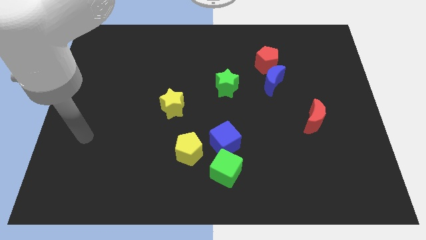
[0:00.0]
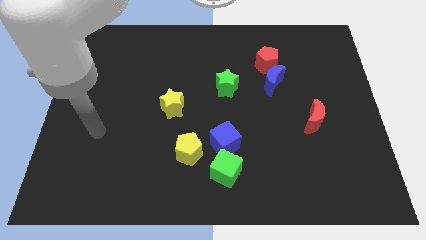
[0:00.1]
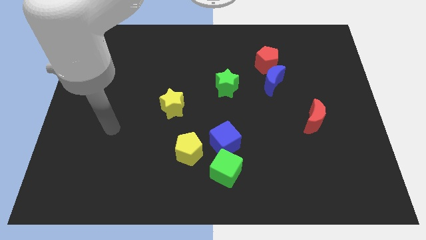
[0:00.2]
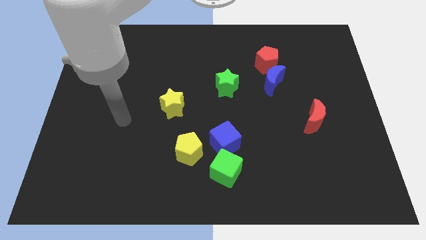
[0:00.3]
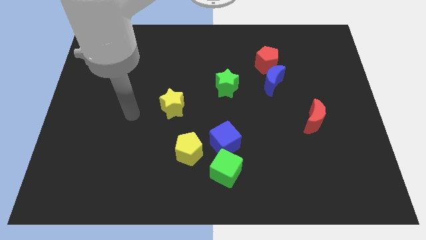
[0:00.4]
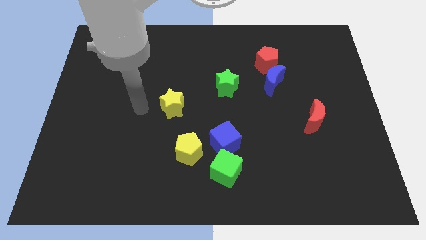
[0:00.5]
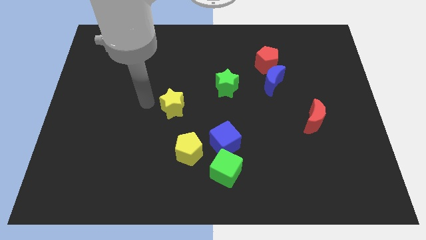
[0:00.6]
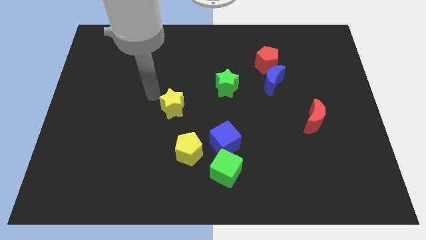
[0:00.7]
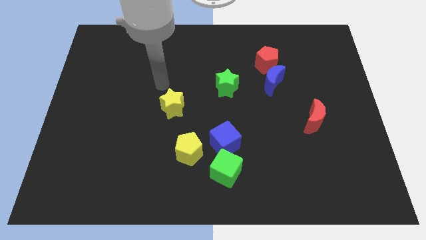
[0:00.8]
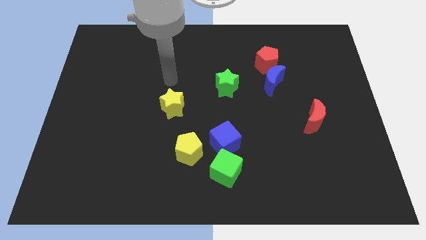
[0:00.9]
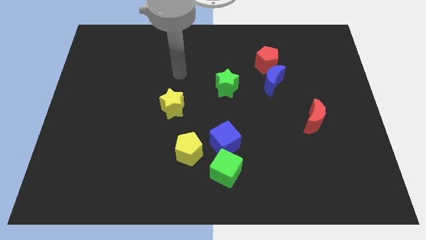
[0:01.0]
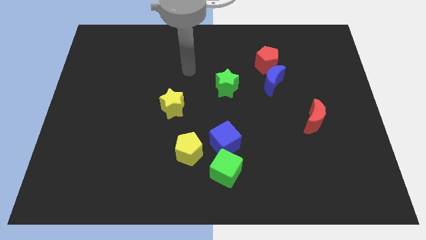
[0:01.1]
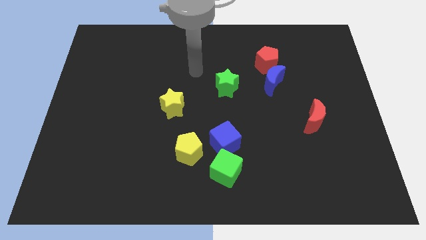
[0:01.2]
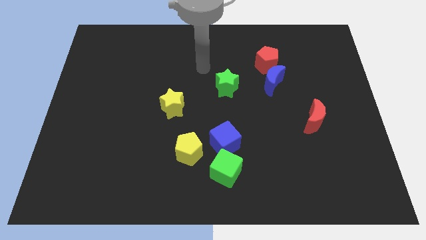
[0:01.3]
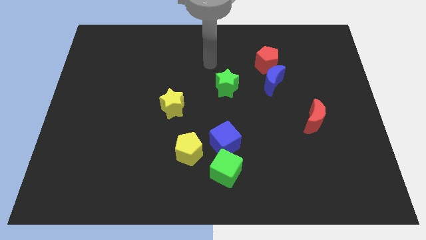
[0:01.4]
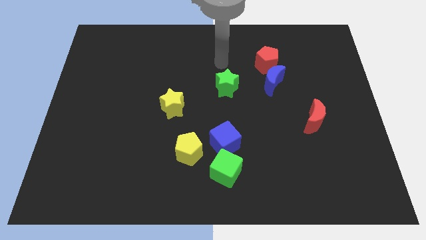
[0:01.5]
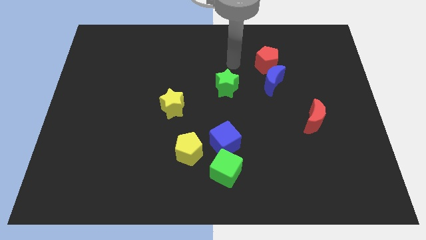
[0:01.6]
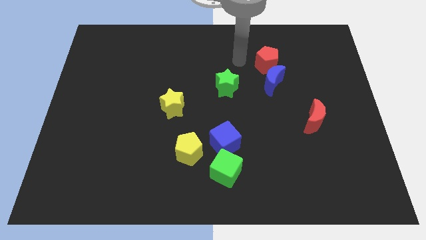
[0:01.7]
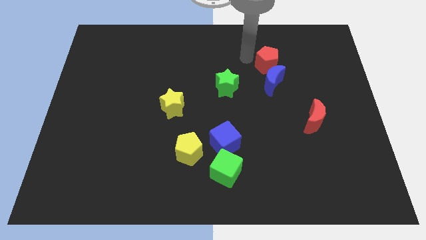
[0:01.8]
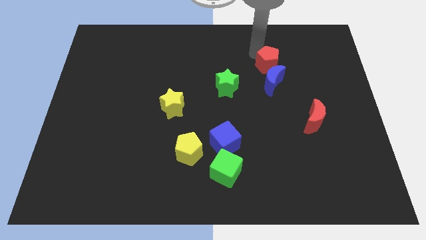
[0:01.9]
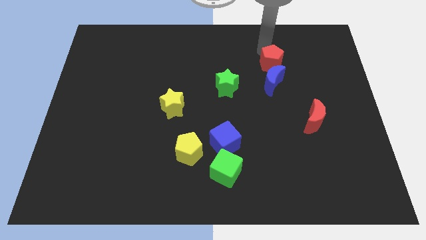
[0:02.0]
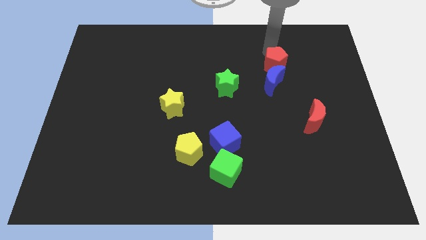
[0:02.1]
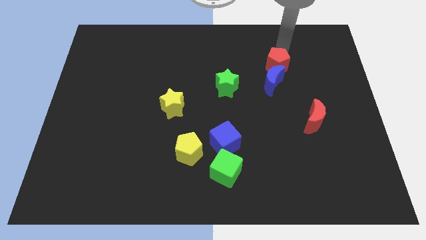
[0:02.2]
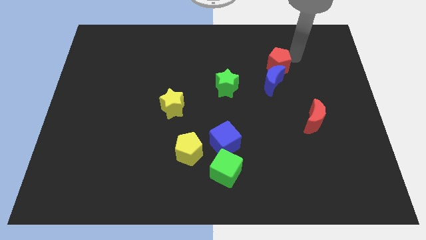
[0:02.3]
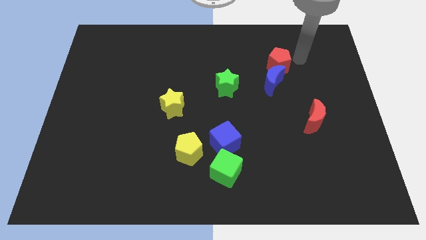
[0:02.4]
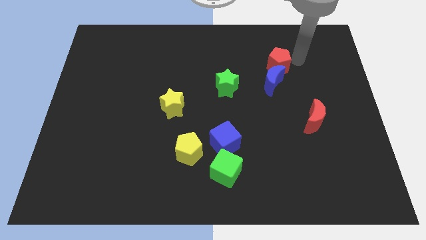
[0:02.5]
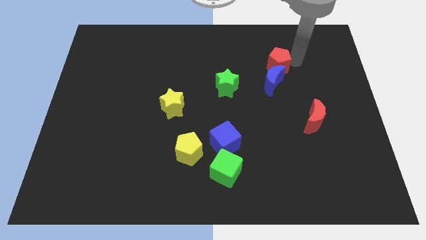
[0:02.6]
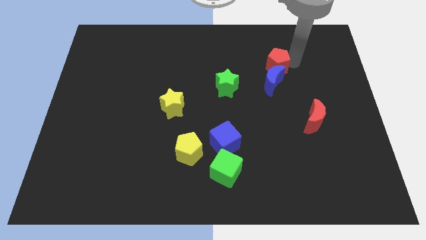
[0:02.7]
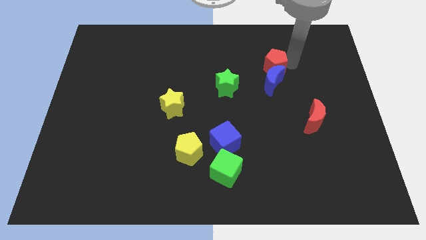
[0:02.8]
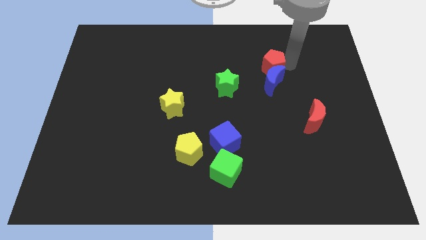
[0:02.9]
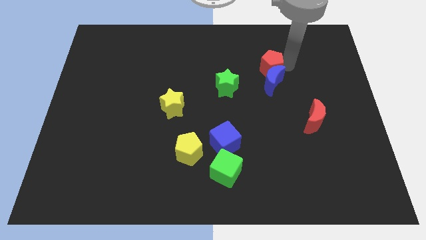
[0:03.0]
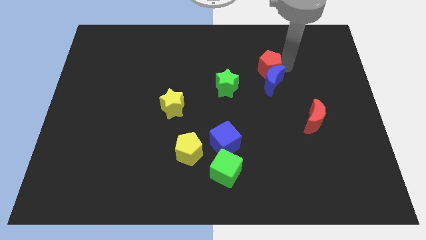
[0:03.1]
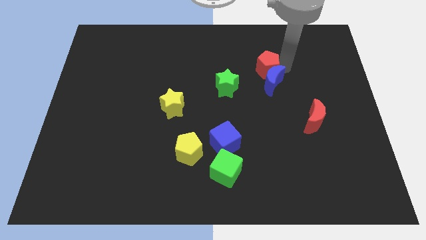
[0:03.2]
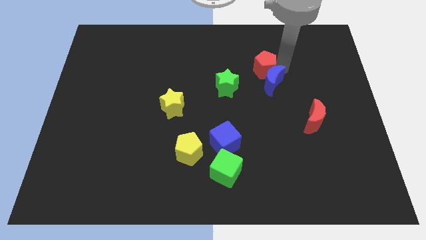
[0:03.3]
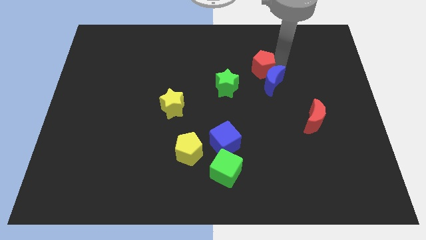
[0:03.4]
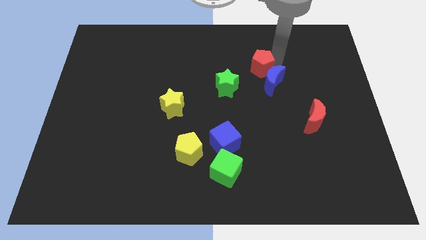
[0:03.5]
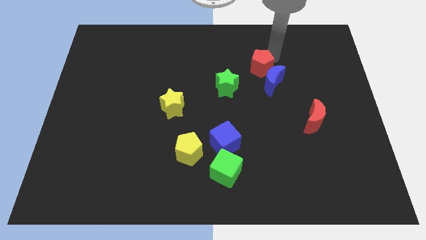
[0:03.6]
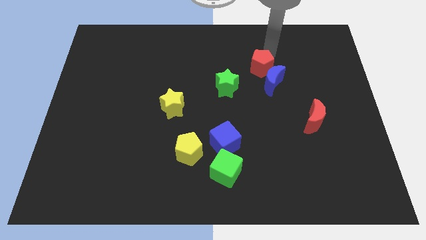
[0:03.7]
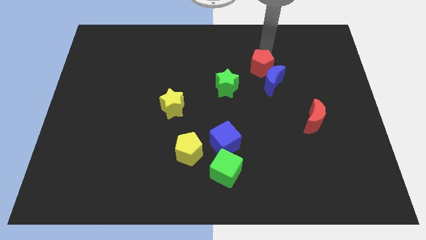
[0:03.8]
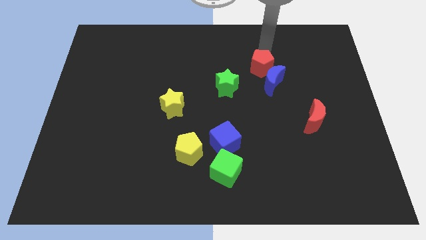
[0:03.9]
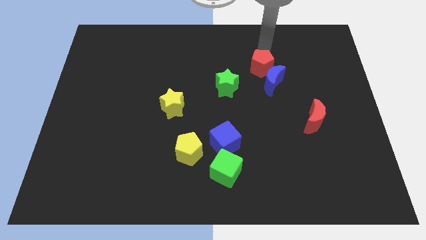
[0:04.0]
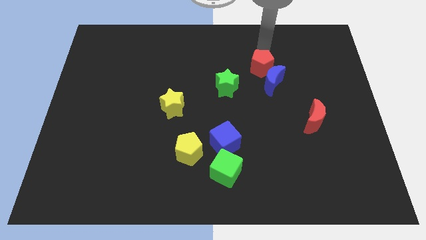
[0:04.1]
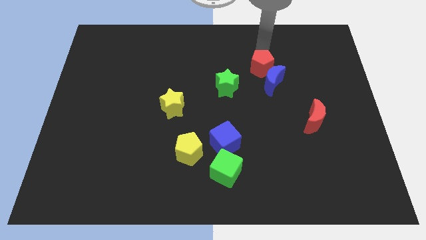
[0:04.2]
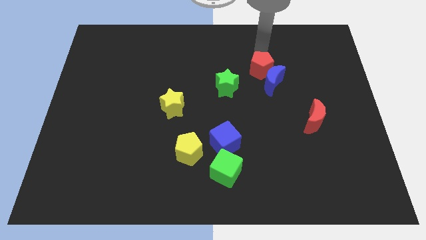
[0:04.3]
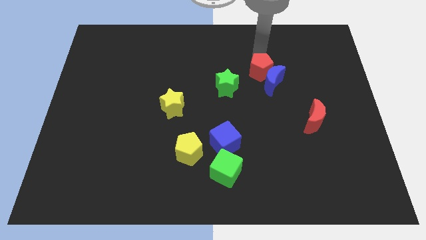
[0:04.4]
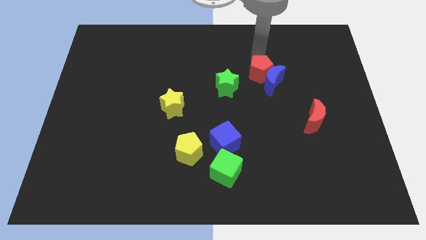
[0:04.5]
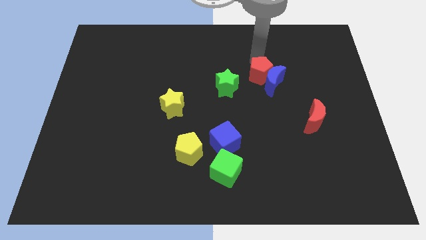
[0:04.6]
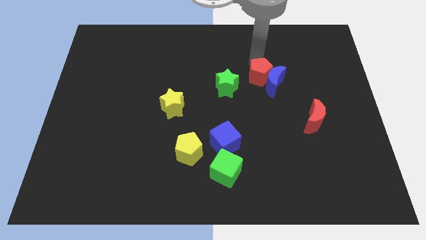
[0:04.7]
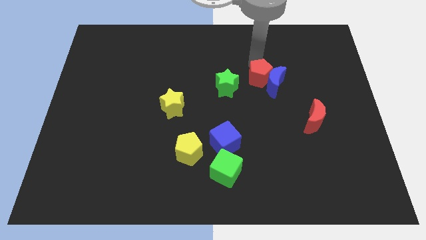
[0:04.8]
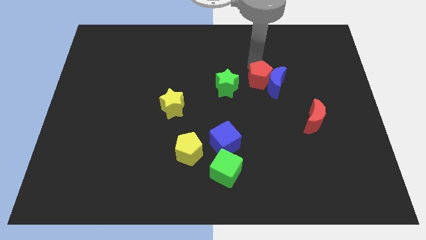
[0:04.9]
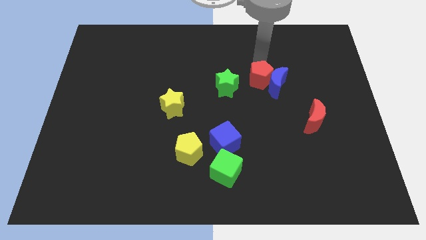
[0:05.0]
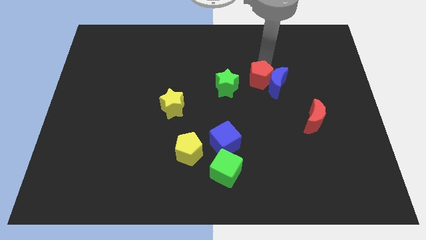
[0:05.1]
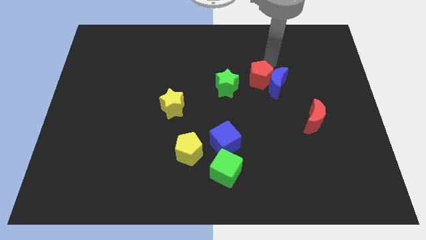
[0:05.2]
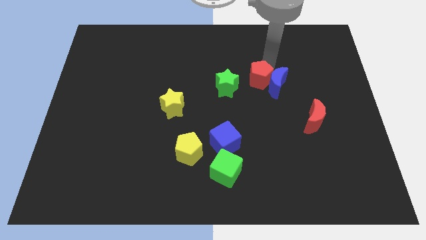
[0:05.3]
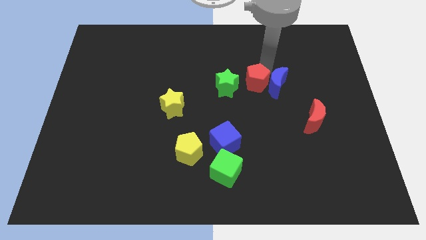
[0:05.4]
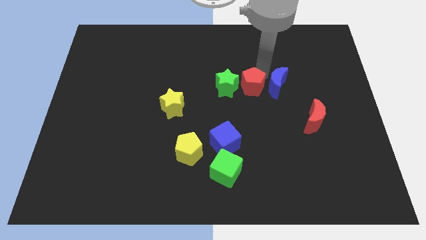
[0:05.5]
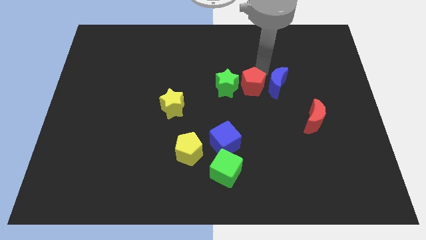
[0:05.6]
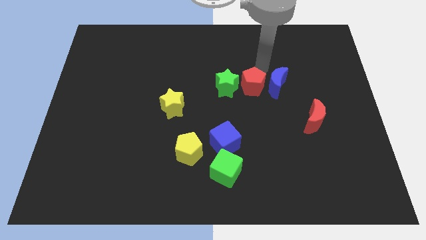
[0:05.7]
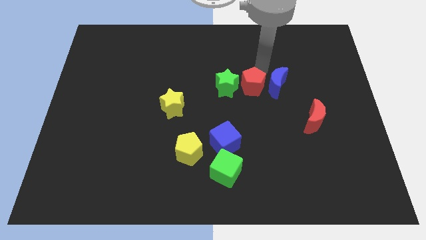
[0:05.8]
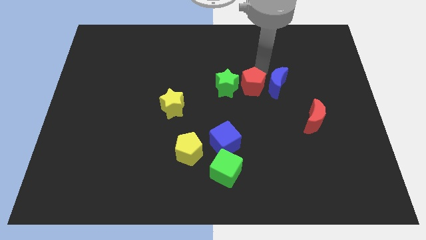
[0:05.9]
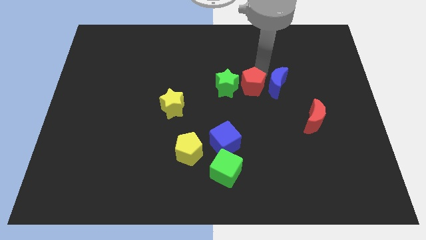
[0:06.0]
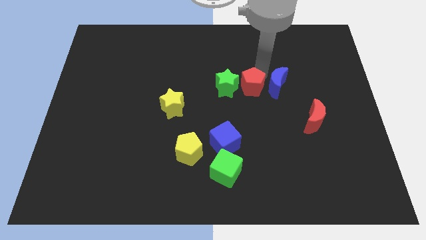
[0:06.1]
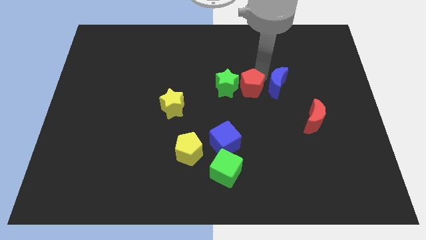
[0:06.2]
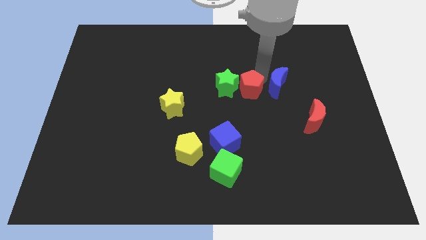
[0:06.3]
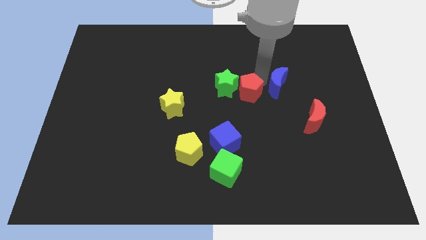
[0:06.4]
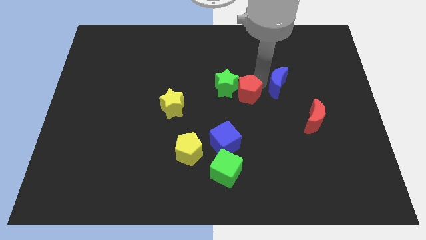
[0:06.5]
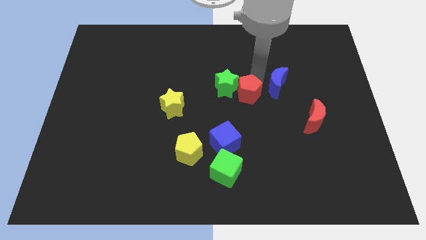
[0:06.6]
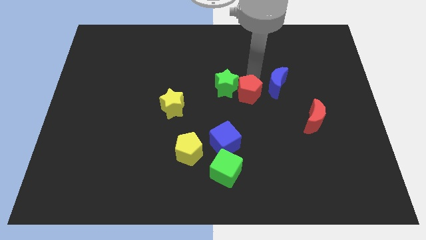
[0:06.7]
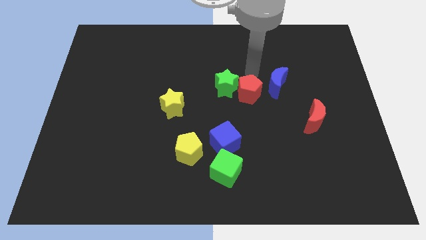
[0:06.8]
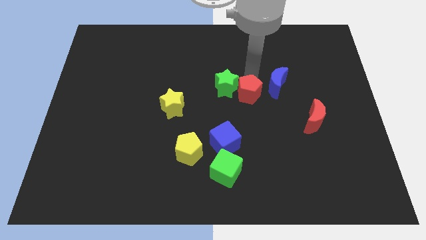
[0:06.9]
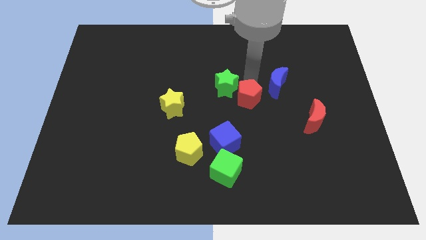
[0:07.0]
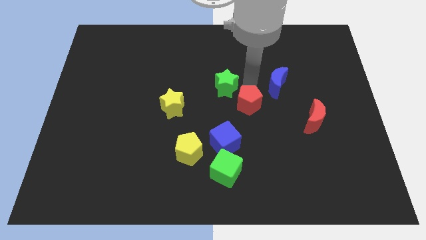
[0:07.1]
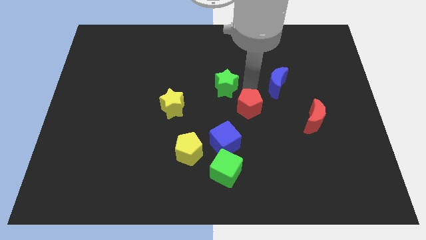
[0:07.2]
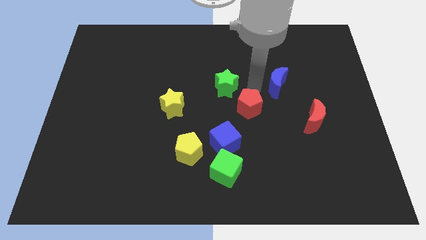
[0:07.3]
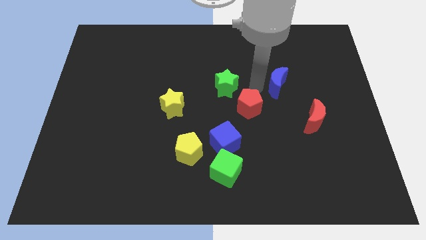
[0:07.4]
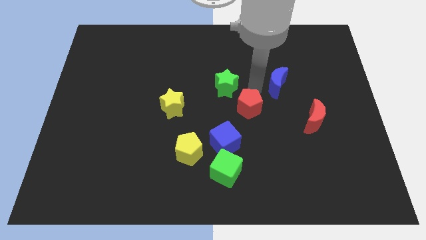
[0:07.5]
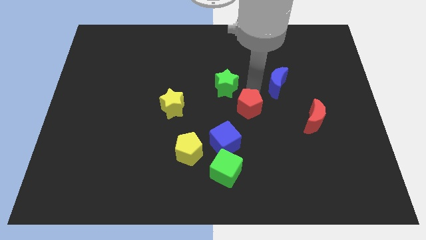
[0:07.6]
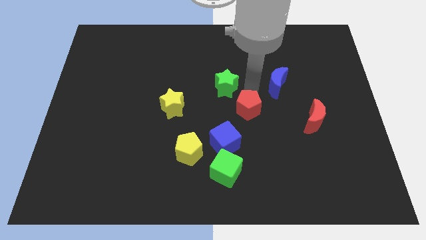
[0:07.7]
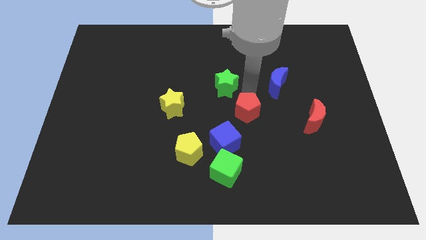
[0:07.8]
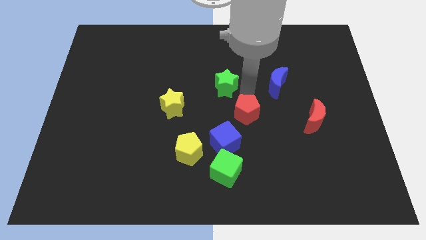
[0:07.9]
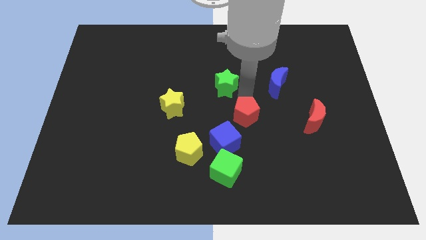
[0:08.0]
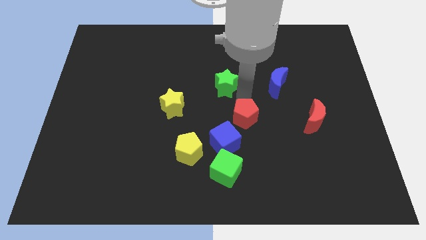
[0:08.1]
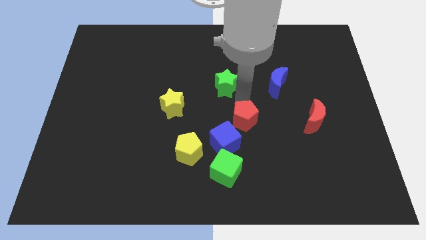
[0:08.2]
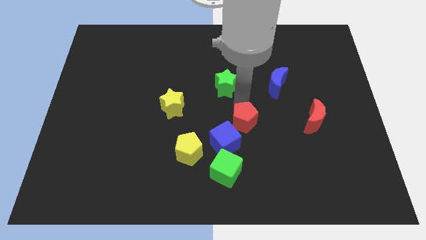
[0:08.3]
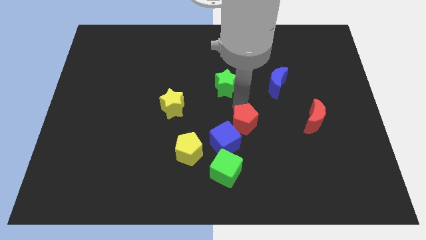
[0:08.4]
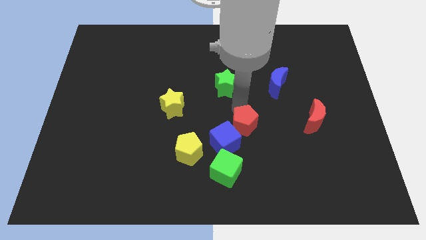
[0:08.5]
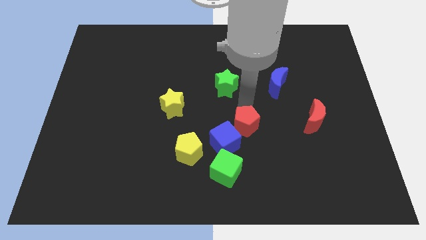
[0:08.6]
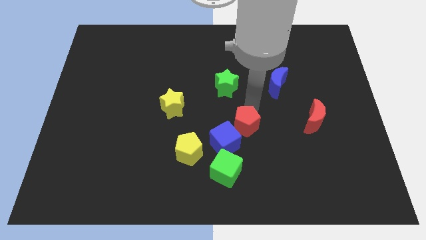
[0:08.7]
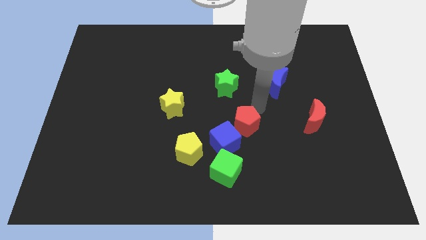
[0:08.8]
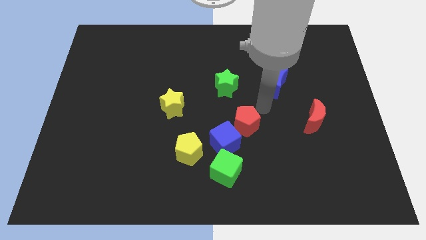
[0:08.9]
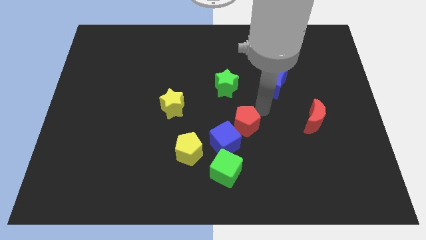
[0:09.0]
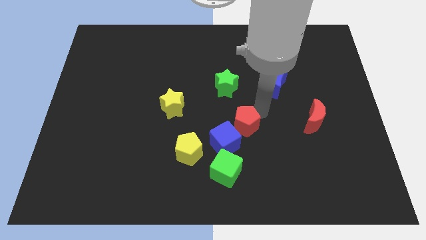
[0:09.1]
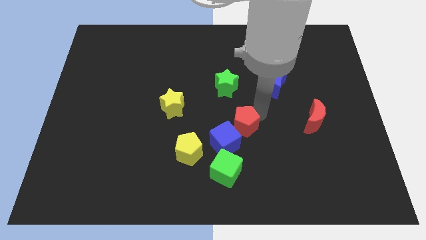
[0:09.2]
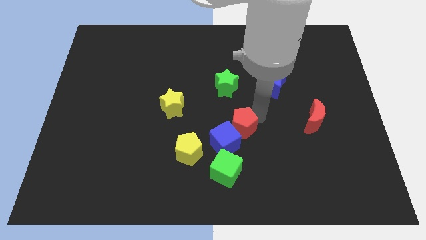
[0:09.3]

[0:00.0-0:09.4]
slide the red pentagon close to the blue cube
